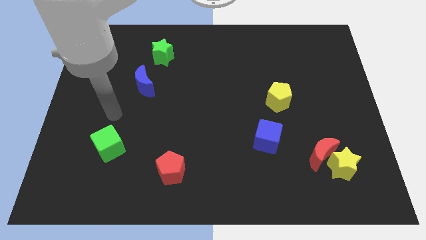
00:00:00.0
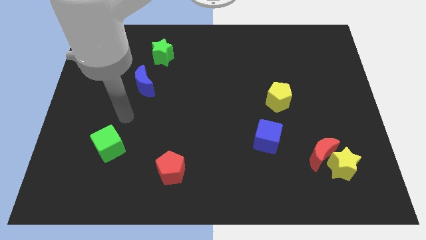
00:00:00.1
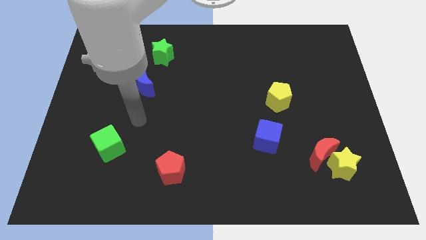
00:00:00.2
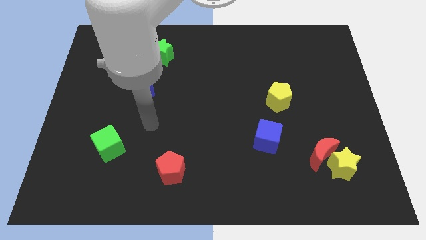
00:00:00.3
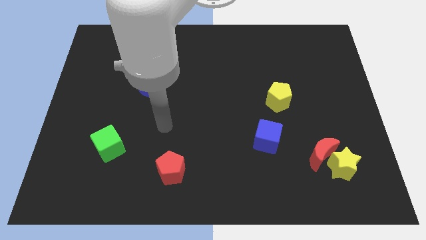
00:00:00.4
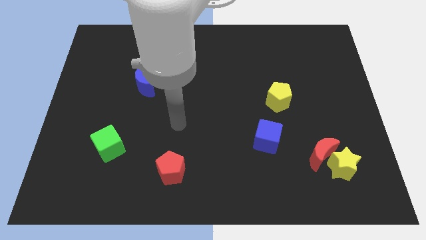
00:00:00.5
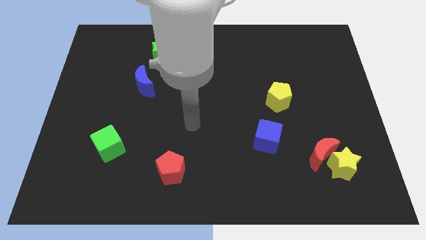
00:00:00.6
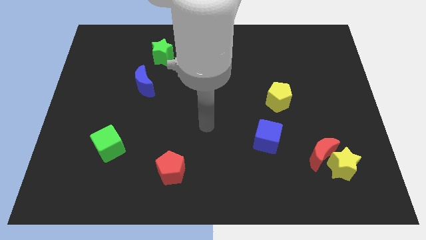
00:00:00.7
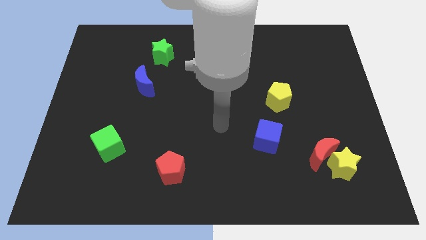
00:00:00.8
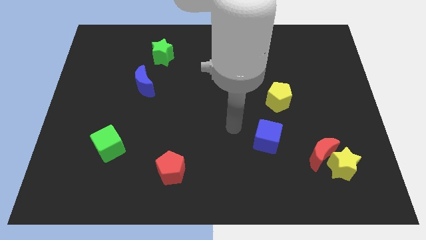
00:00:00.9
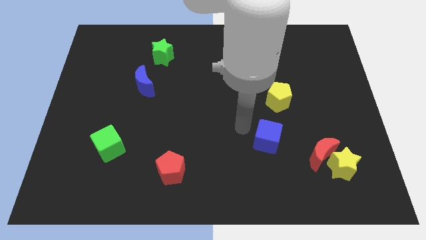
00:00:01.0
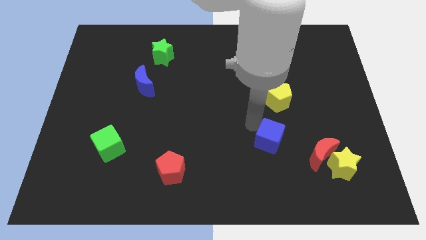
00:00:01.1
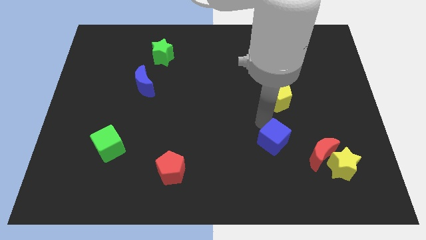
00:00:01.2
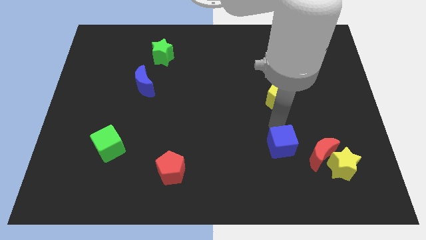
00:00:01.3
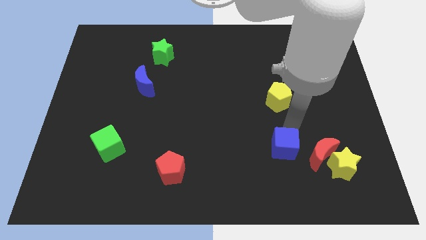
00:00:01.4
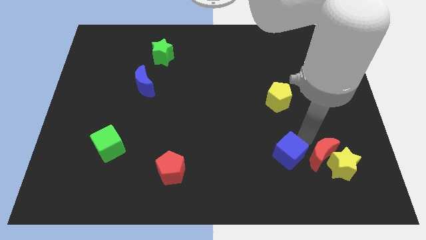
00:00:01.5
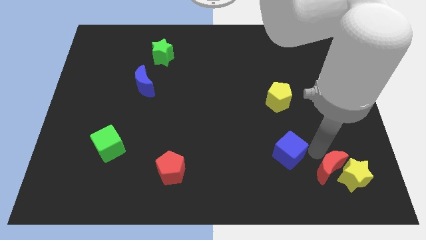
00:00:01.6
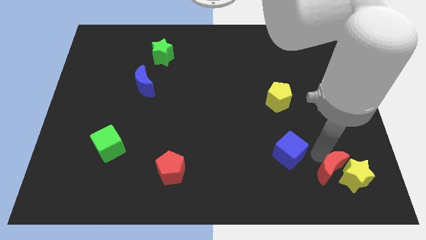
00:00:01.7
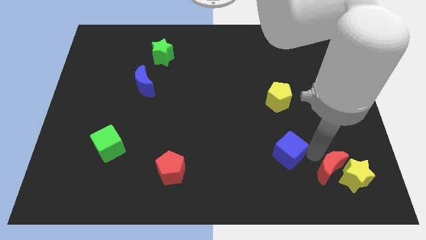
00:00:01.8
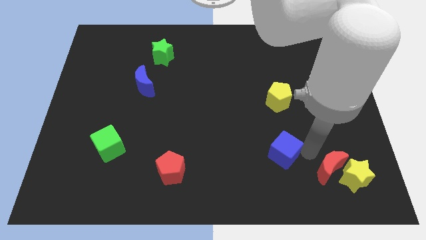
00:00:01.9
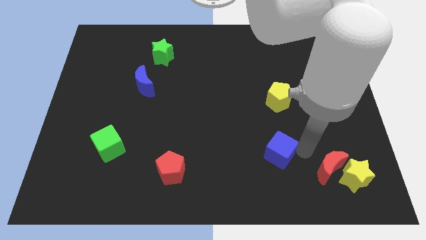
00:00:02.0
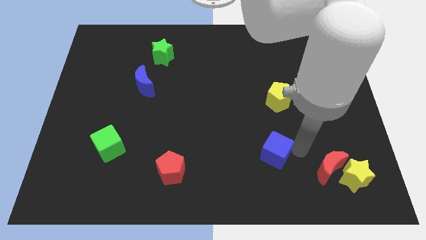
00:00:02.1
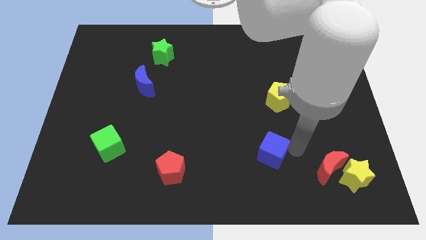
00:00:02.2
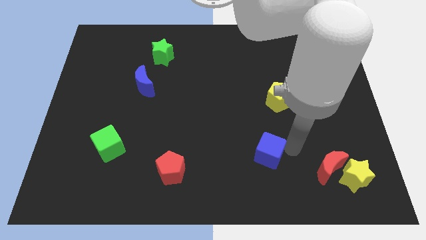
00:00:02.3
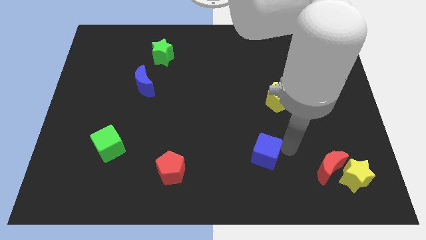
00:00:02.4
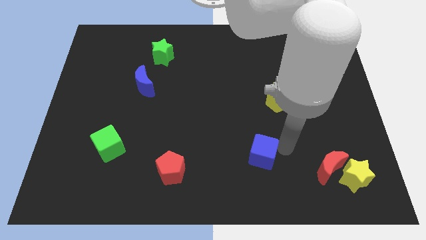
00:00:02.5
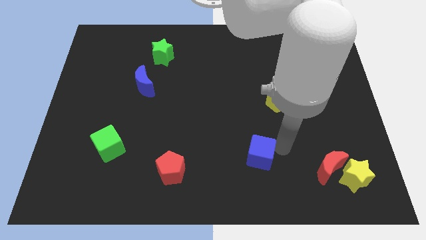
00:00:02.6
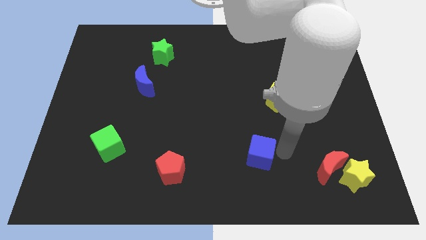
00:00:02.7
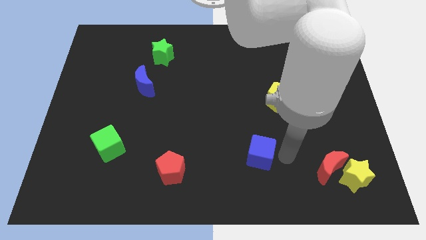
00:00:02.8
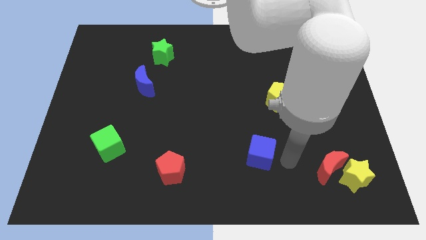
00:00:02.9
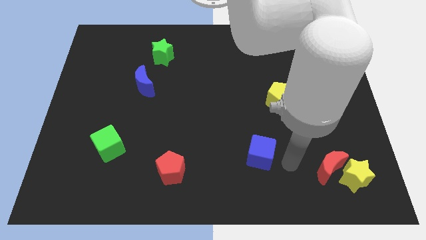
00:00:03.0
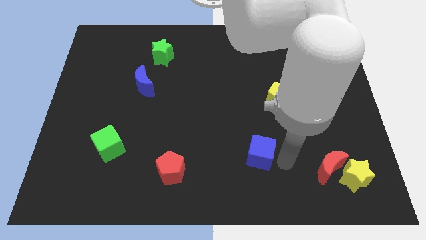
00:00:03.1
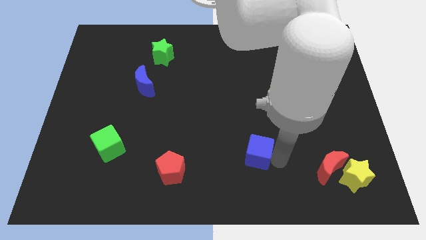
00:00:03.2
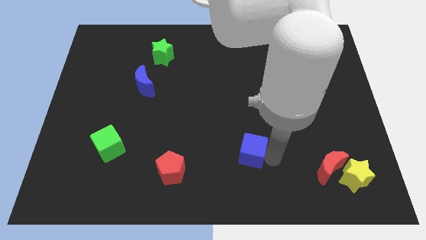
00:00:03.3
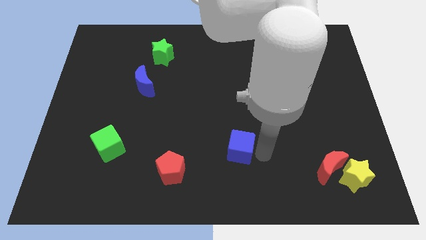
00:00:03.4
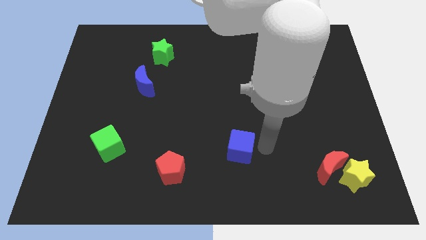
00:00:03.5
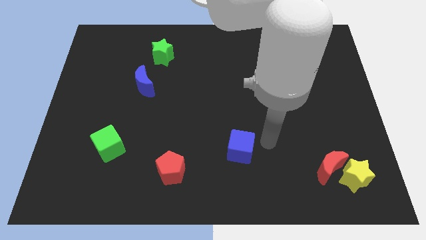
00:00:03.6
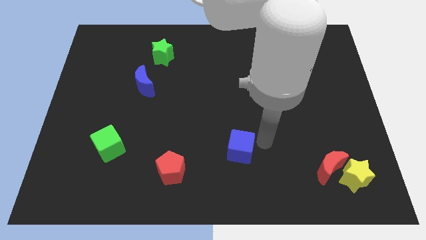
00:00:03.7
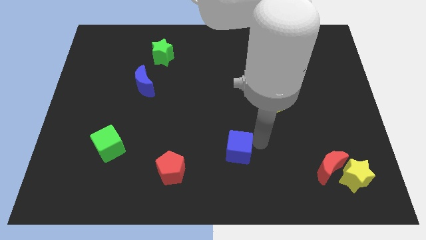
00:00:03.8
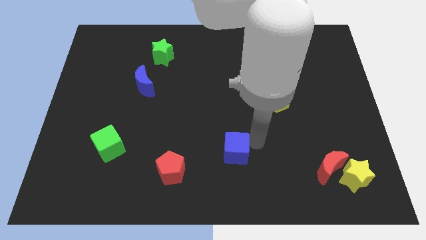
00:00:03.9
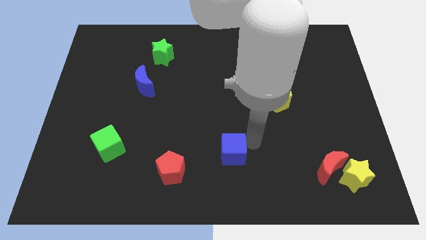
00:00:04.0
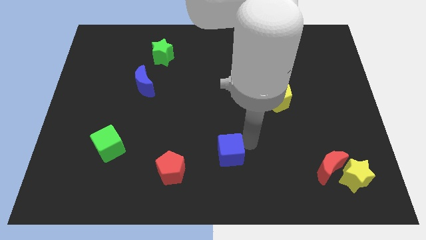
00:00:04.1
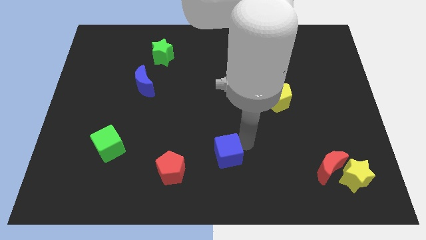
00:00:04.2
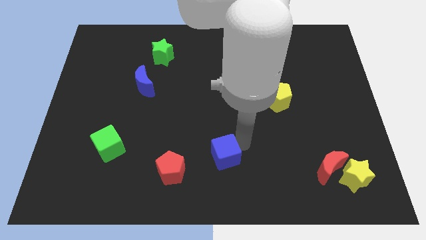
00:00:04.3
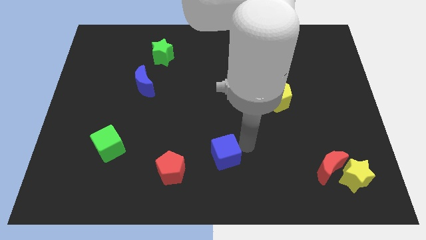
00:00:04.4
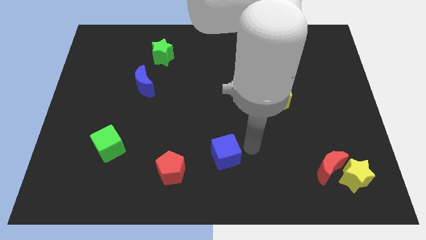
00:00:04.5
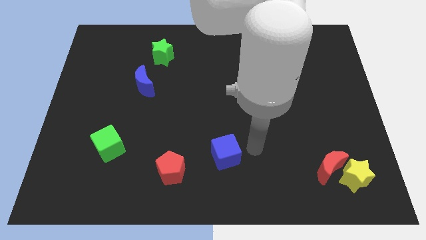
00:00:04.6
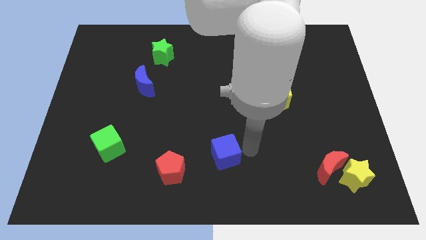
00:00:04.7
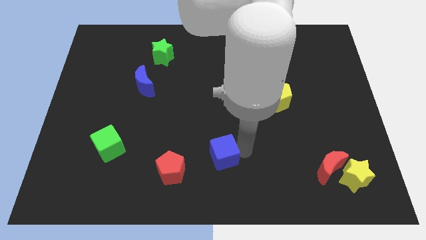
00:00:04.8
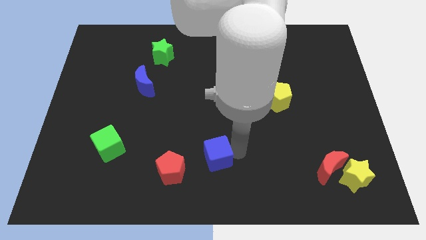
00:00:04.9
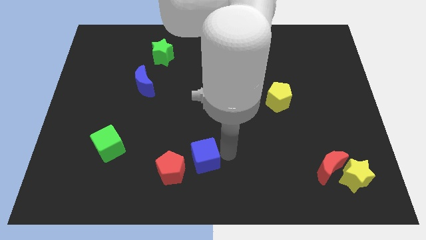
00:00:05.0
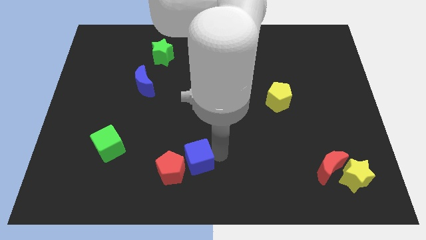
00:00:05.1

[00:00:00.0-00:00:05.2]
move the blue cube to the red pentagon

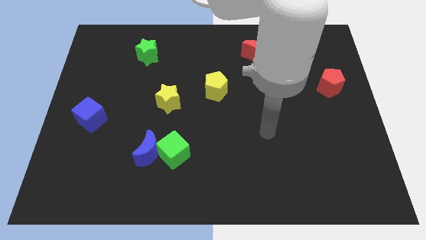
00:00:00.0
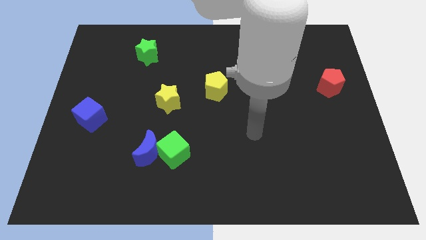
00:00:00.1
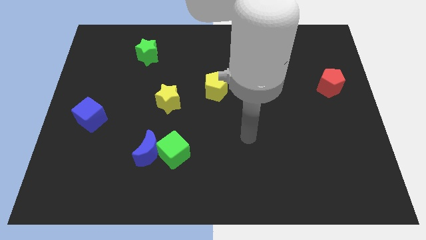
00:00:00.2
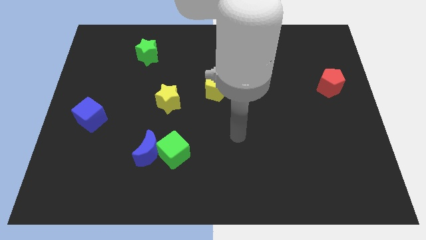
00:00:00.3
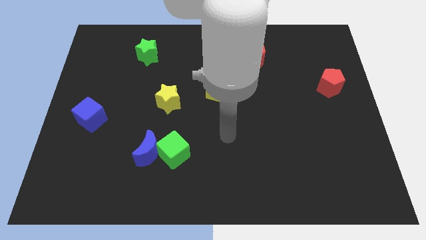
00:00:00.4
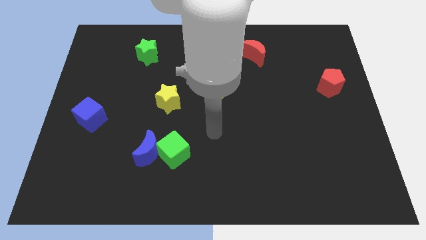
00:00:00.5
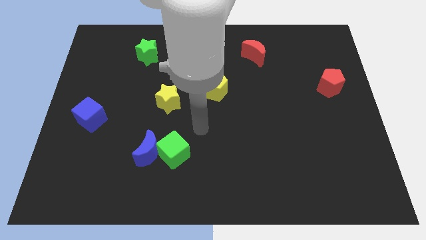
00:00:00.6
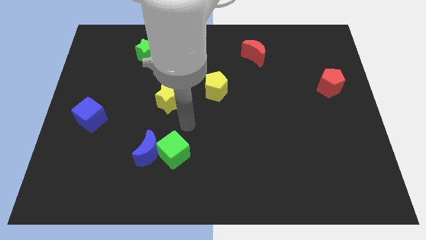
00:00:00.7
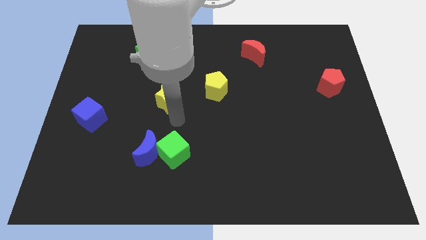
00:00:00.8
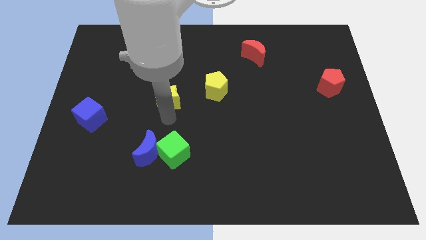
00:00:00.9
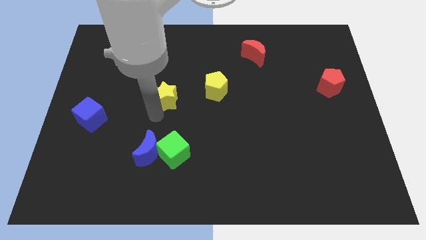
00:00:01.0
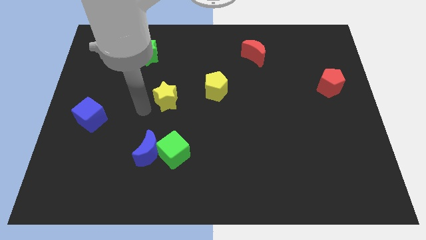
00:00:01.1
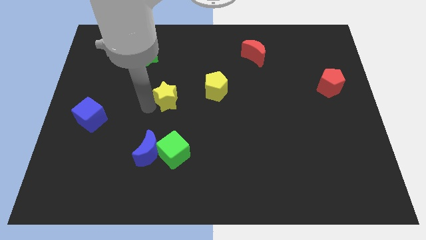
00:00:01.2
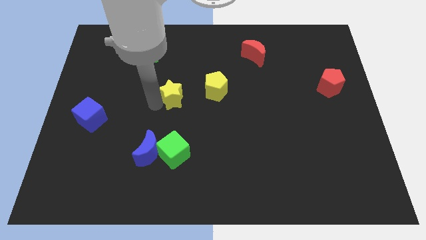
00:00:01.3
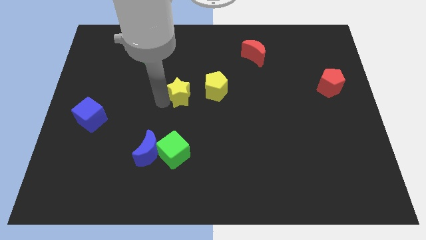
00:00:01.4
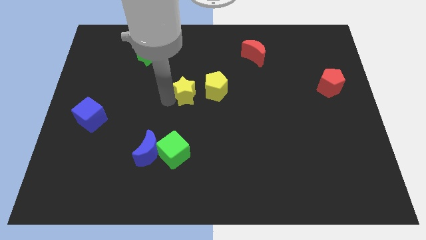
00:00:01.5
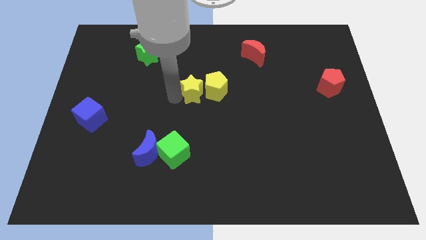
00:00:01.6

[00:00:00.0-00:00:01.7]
put the yellow star to the yellow pentagon

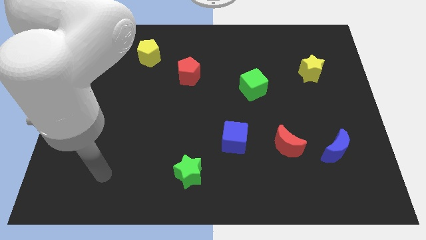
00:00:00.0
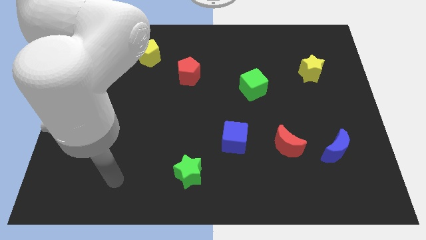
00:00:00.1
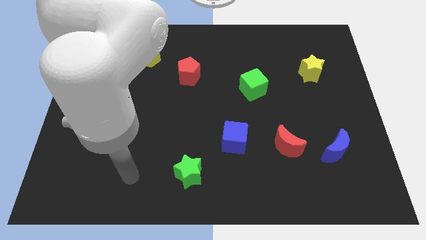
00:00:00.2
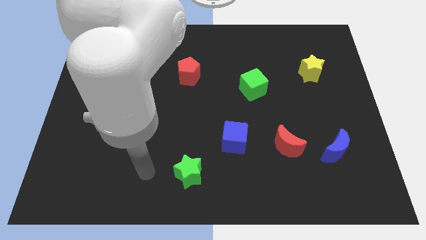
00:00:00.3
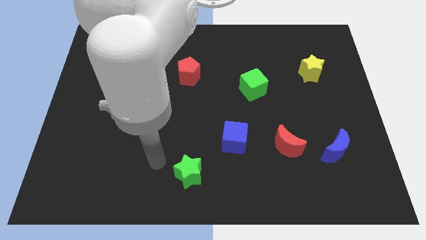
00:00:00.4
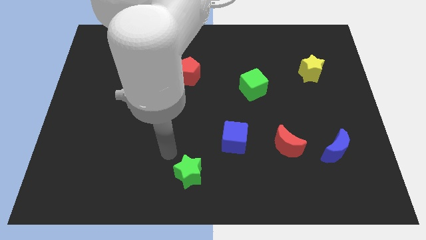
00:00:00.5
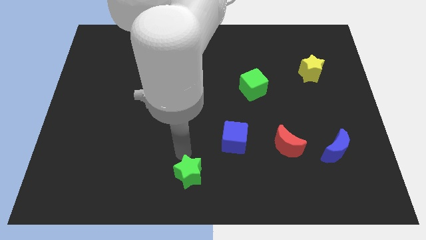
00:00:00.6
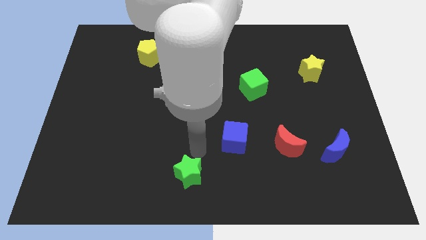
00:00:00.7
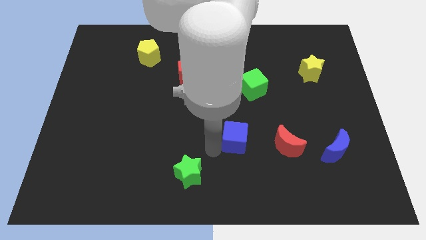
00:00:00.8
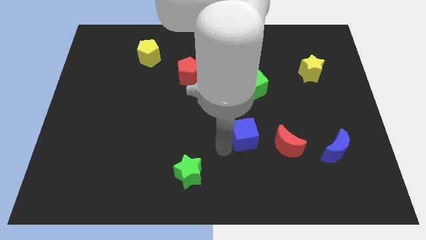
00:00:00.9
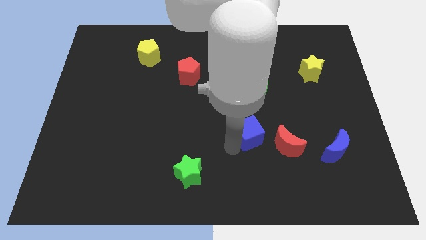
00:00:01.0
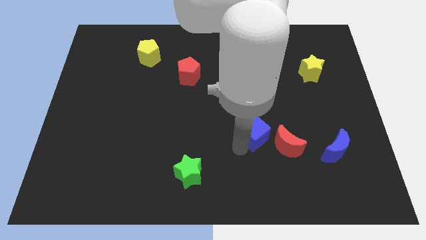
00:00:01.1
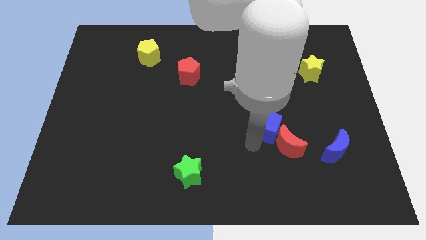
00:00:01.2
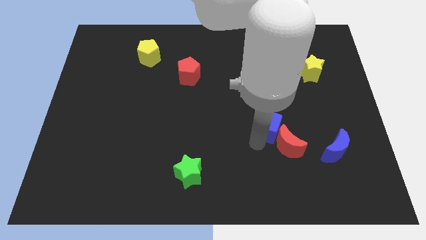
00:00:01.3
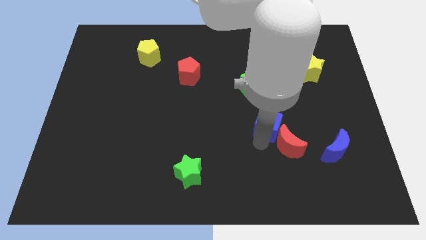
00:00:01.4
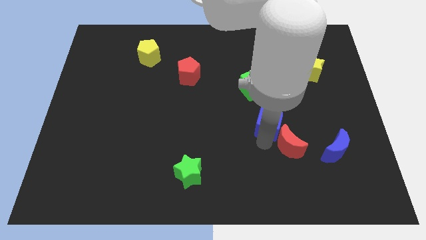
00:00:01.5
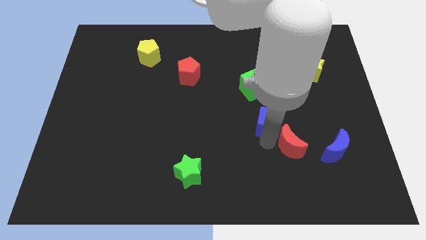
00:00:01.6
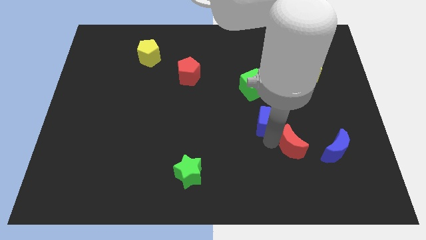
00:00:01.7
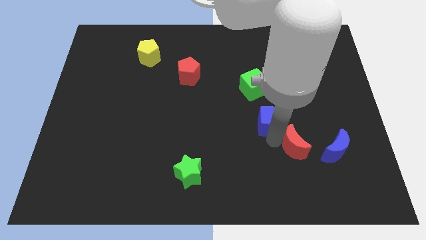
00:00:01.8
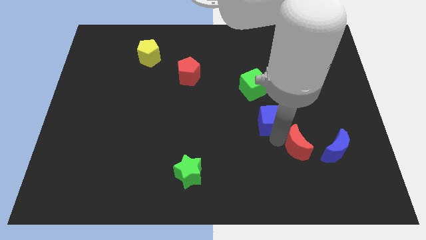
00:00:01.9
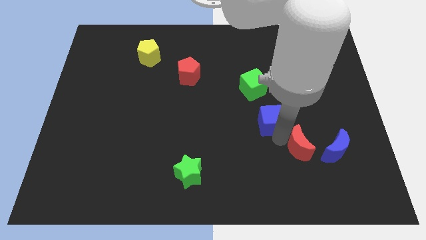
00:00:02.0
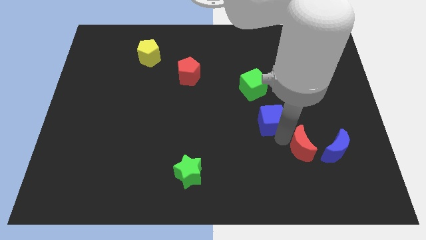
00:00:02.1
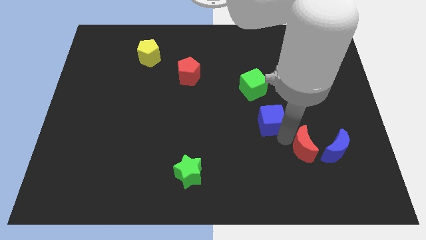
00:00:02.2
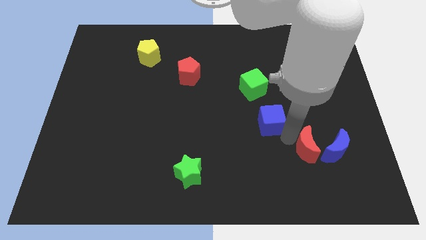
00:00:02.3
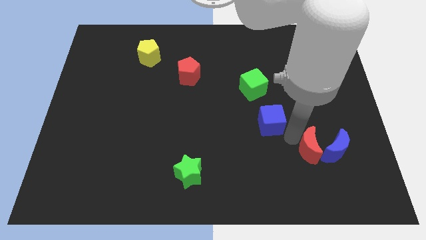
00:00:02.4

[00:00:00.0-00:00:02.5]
push the red moon to the blue moon
